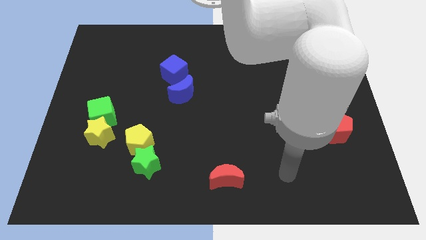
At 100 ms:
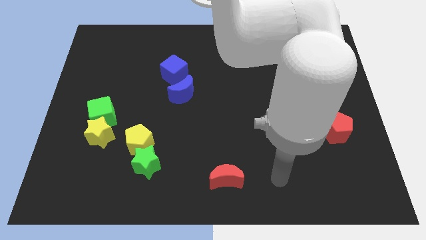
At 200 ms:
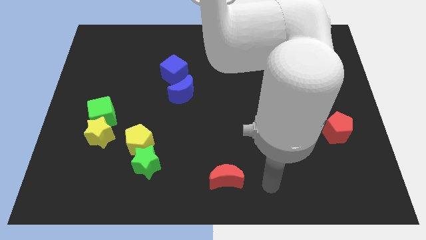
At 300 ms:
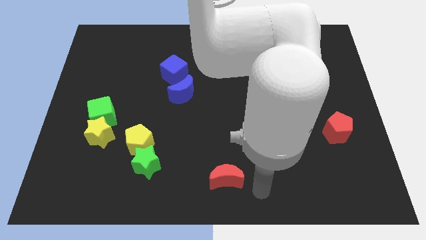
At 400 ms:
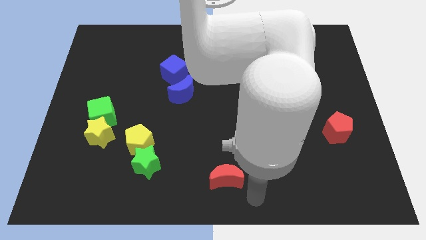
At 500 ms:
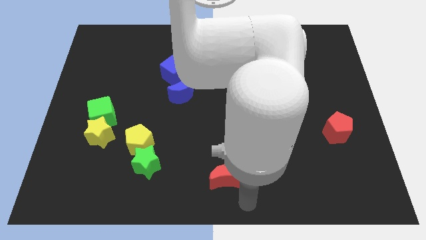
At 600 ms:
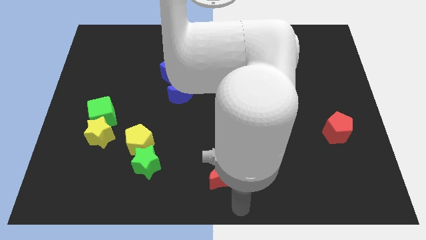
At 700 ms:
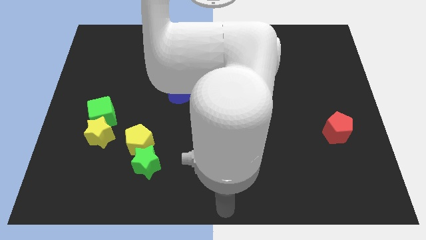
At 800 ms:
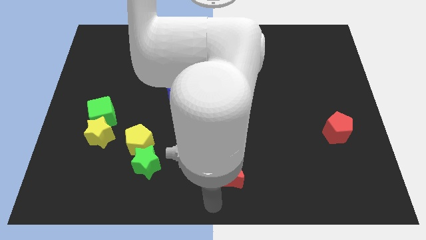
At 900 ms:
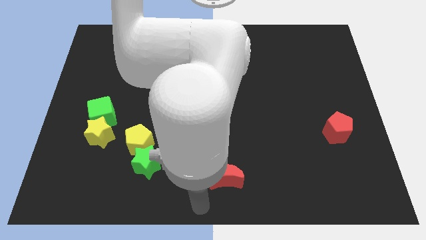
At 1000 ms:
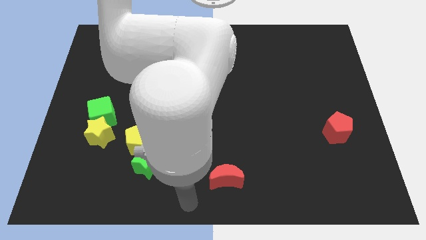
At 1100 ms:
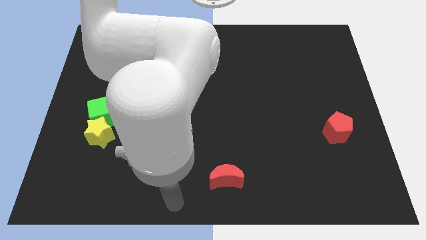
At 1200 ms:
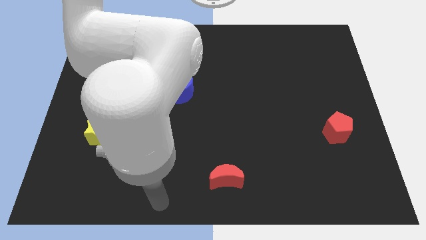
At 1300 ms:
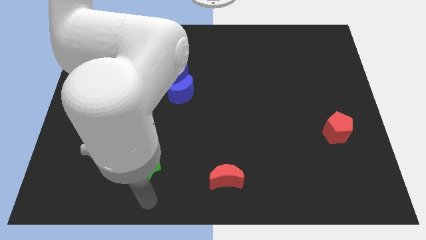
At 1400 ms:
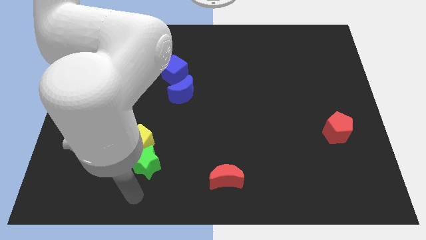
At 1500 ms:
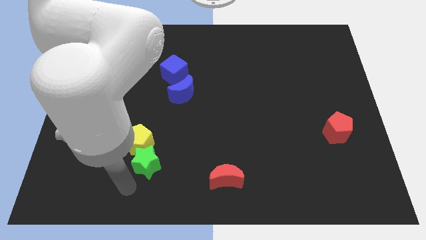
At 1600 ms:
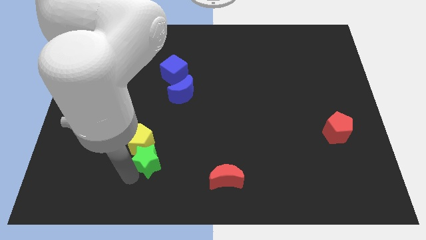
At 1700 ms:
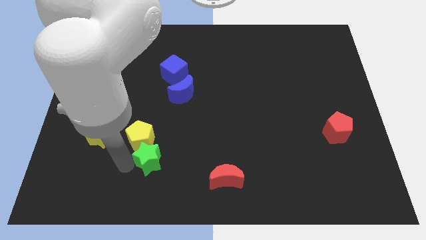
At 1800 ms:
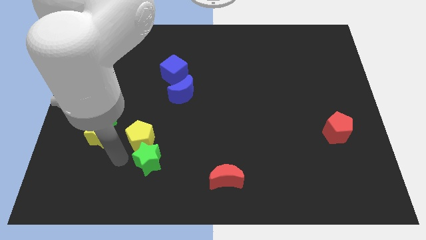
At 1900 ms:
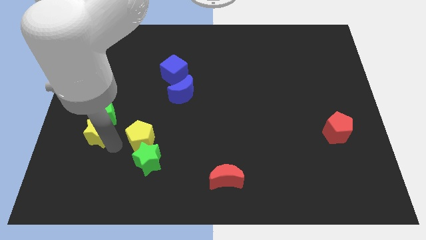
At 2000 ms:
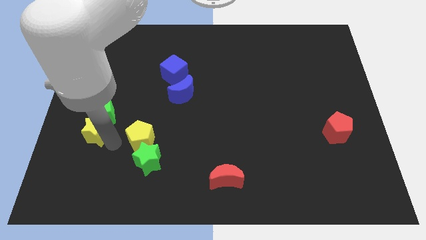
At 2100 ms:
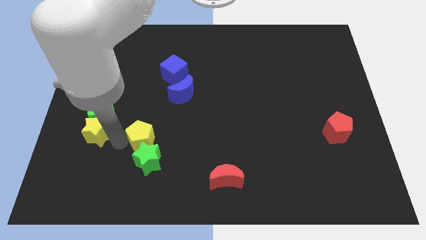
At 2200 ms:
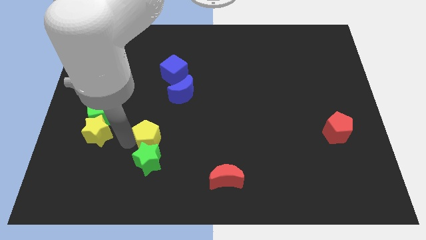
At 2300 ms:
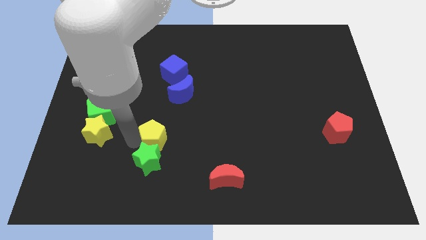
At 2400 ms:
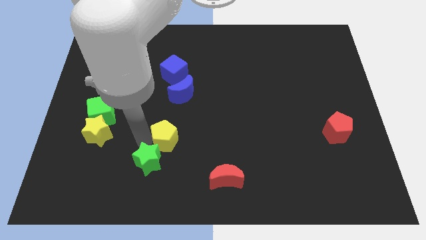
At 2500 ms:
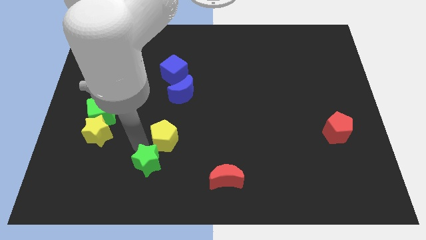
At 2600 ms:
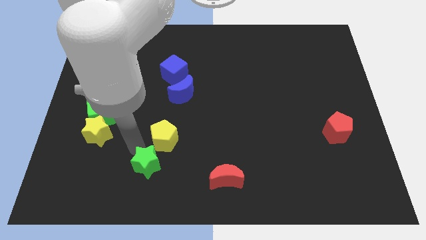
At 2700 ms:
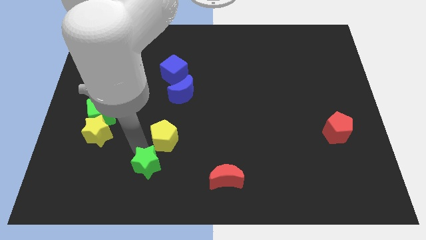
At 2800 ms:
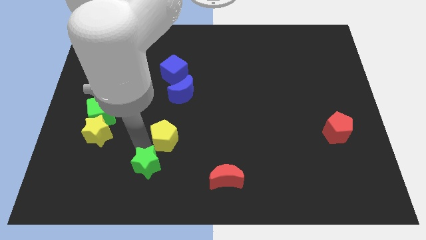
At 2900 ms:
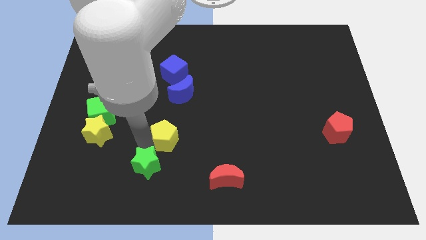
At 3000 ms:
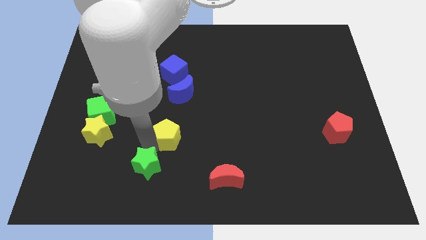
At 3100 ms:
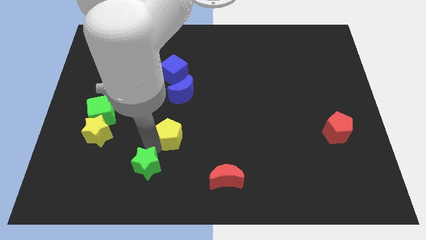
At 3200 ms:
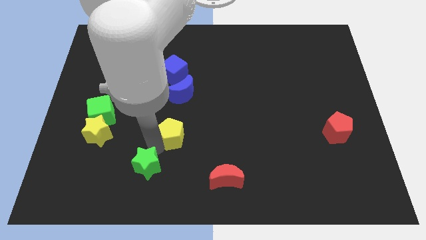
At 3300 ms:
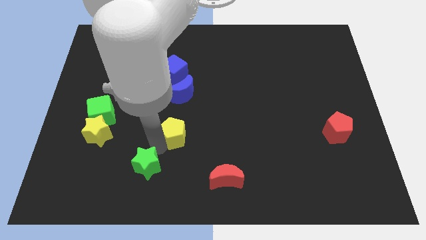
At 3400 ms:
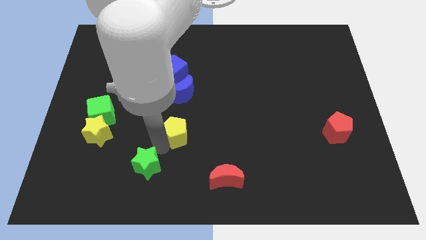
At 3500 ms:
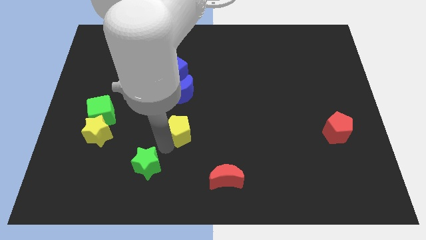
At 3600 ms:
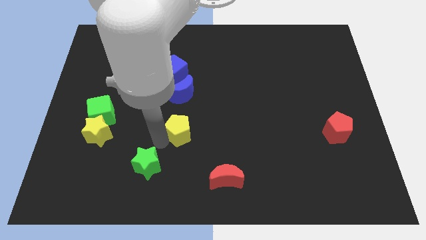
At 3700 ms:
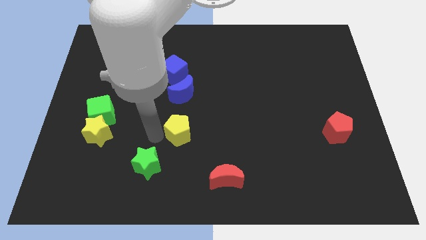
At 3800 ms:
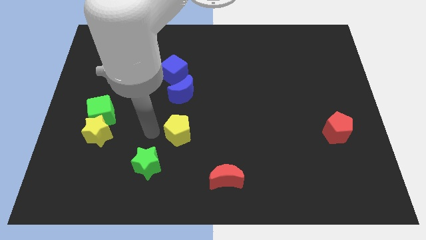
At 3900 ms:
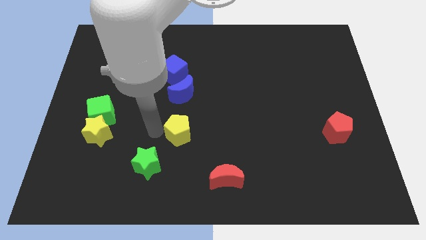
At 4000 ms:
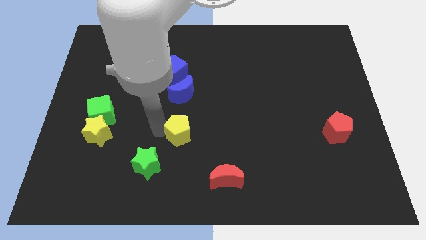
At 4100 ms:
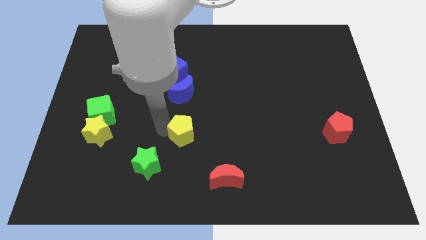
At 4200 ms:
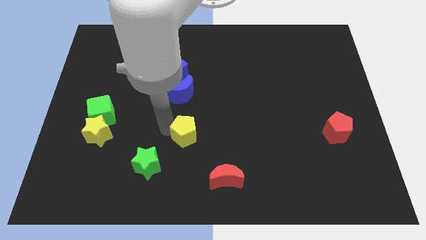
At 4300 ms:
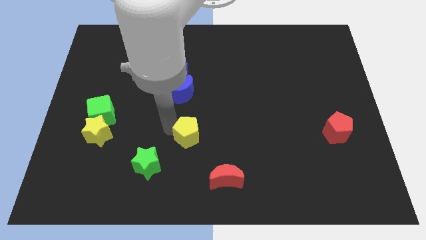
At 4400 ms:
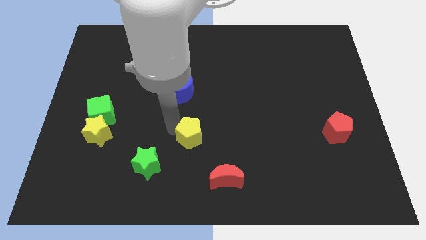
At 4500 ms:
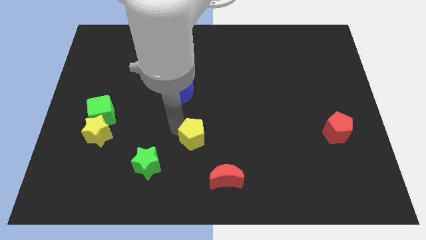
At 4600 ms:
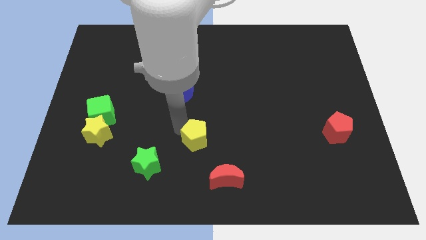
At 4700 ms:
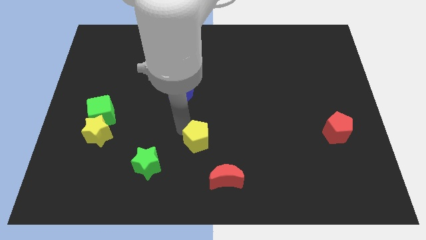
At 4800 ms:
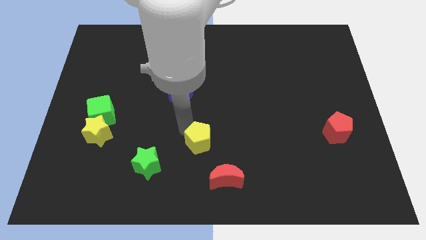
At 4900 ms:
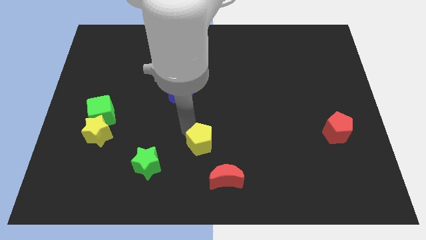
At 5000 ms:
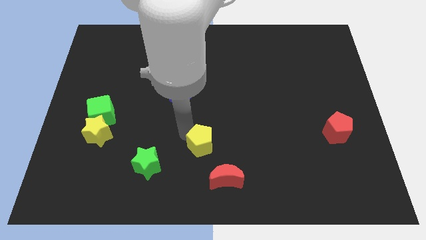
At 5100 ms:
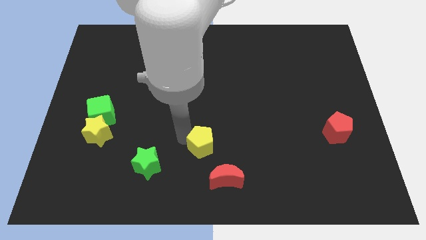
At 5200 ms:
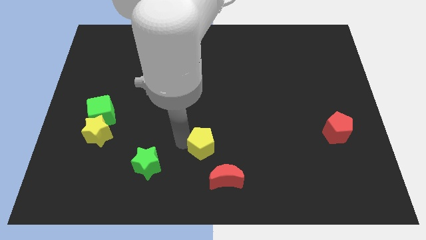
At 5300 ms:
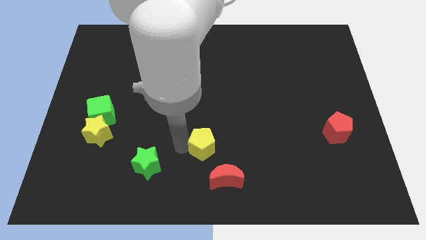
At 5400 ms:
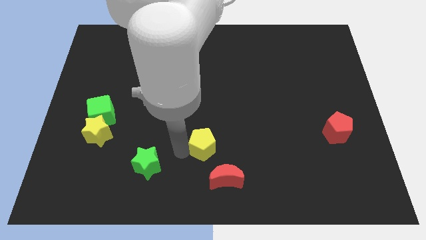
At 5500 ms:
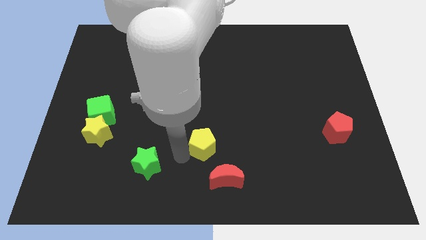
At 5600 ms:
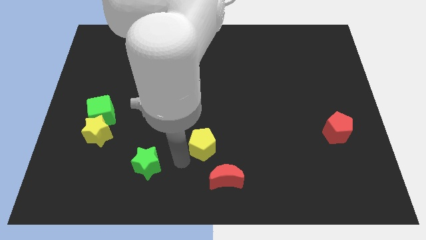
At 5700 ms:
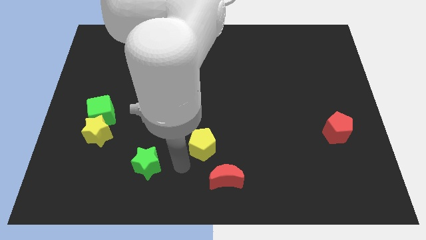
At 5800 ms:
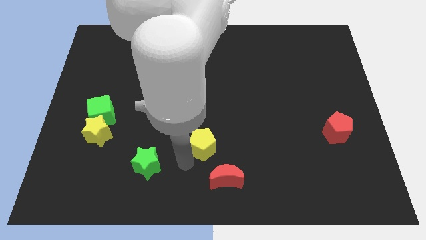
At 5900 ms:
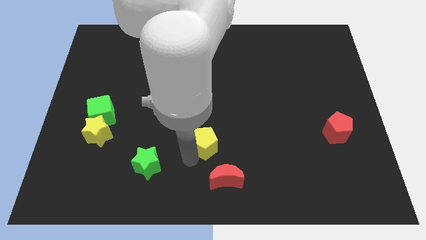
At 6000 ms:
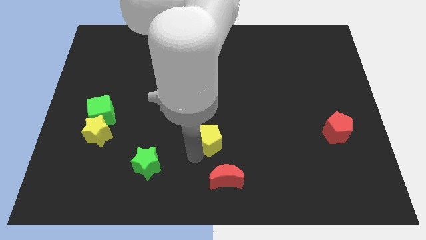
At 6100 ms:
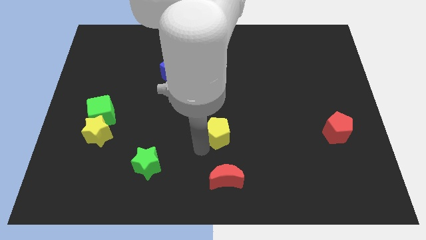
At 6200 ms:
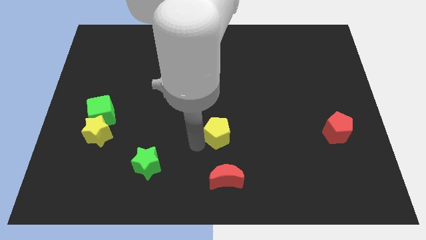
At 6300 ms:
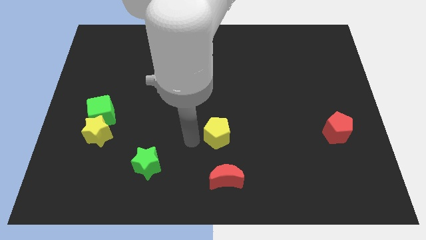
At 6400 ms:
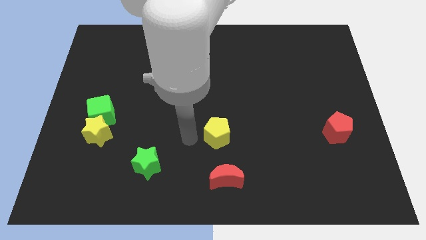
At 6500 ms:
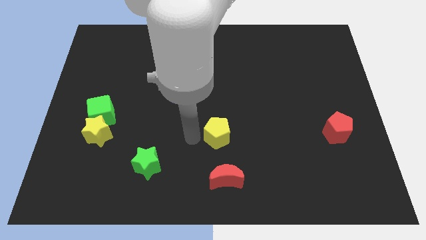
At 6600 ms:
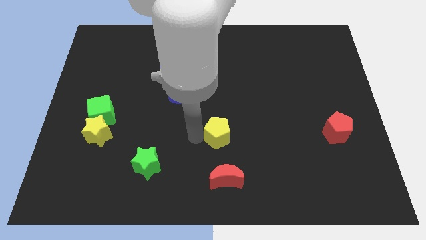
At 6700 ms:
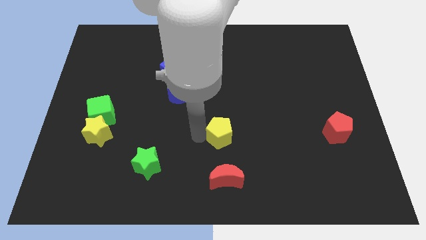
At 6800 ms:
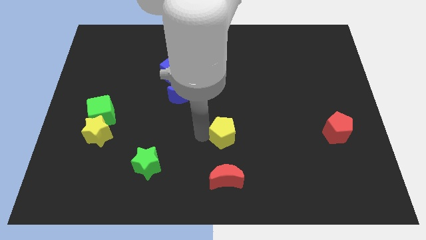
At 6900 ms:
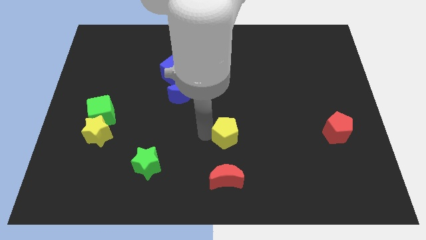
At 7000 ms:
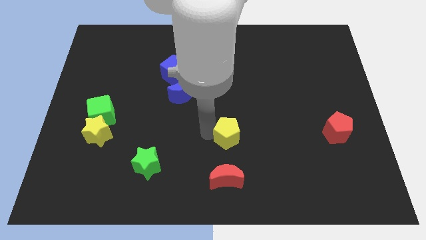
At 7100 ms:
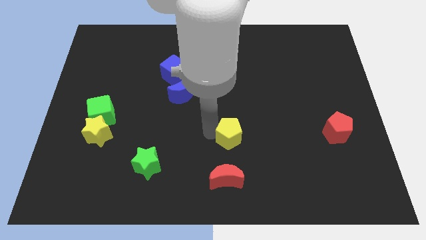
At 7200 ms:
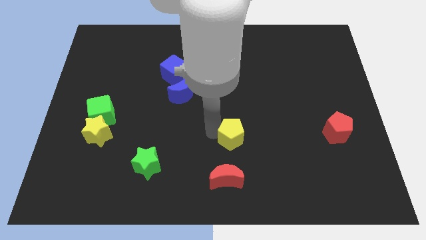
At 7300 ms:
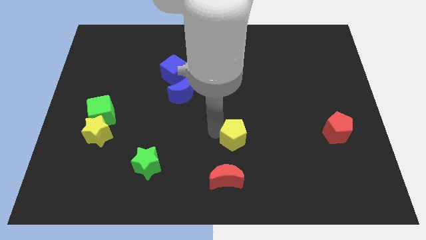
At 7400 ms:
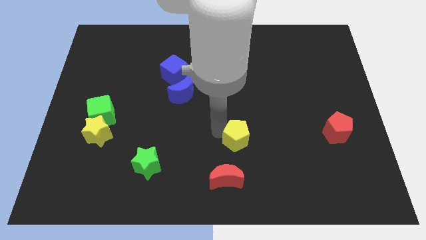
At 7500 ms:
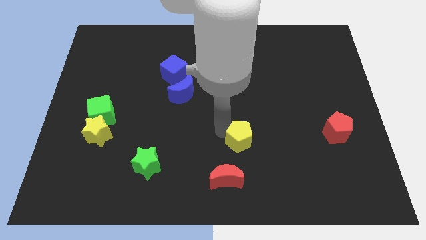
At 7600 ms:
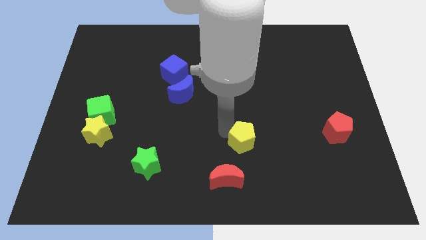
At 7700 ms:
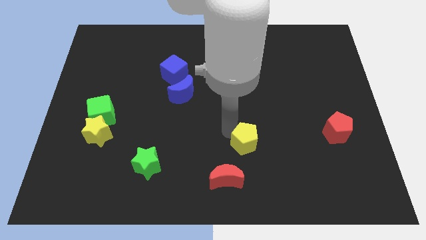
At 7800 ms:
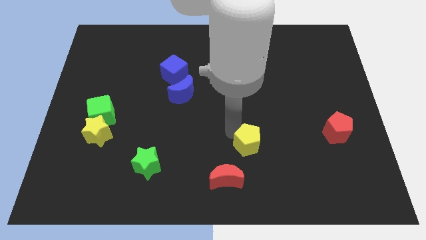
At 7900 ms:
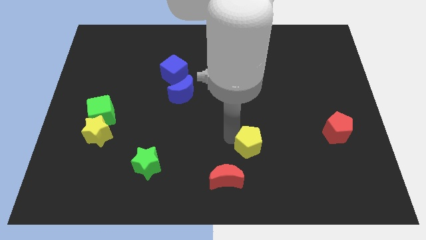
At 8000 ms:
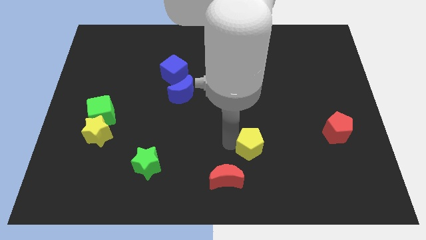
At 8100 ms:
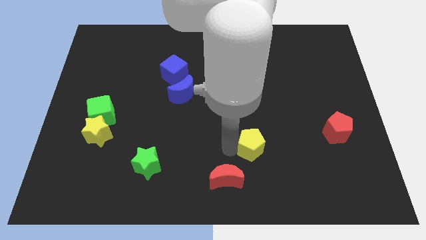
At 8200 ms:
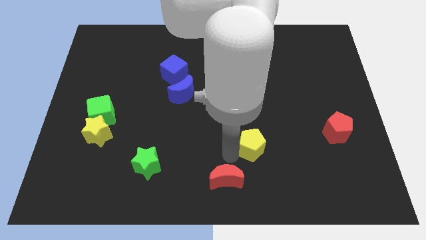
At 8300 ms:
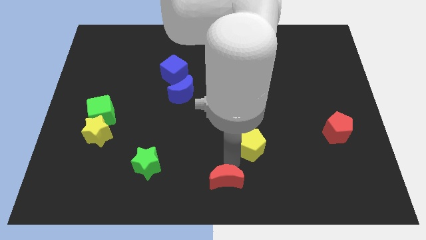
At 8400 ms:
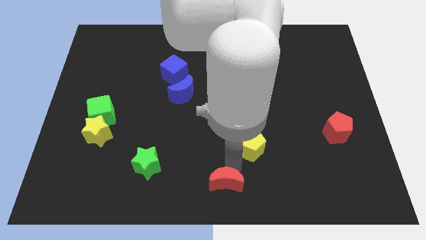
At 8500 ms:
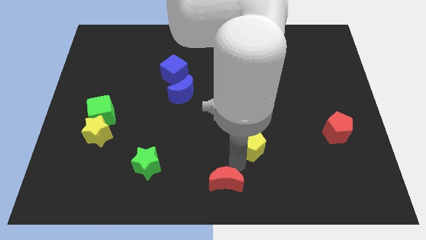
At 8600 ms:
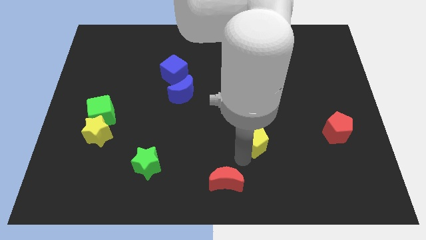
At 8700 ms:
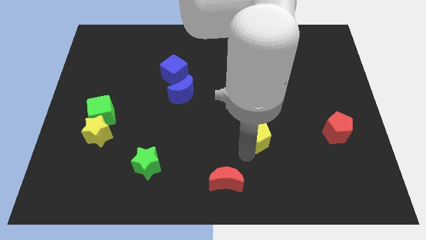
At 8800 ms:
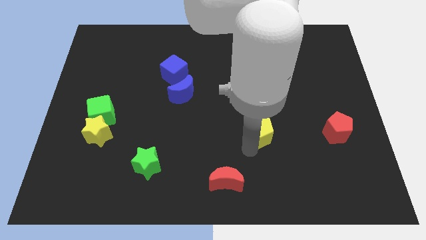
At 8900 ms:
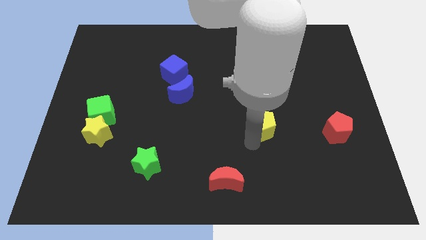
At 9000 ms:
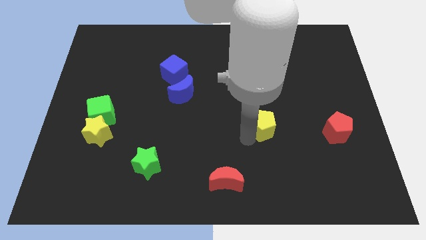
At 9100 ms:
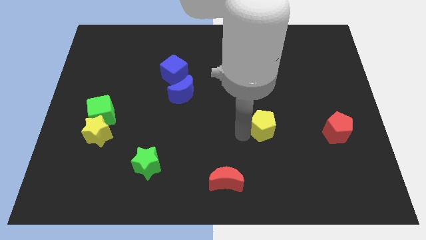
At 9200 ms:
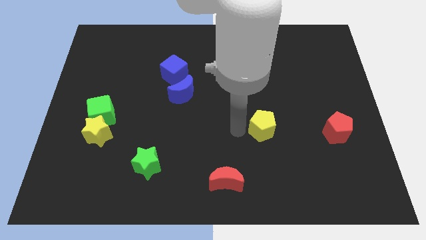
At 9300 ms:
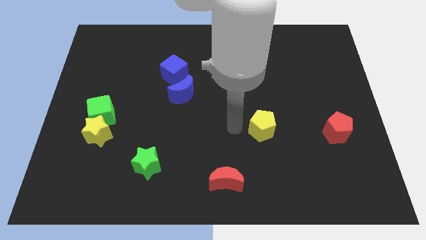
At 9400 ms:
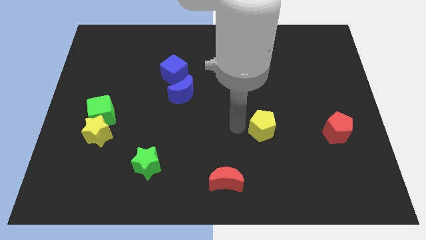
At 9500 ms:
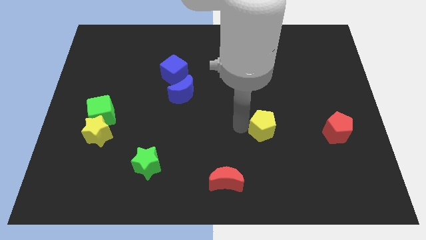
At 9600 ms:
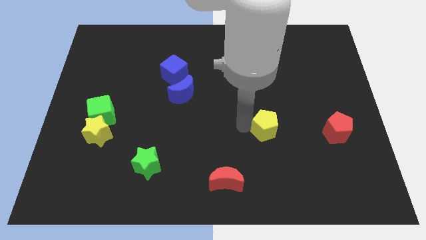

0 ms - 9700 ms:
move the yellow pentagon left of the red pentagon
